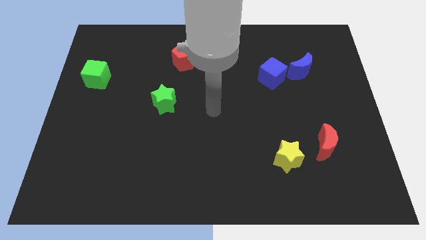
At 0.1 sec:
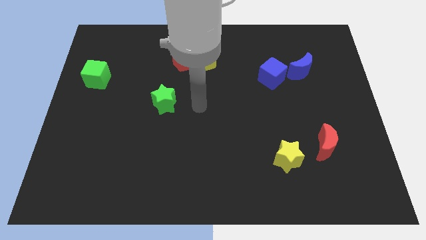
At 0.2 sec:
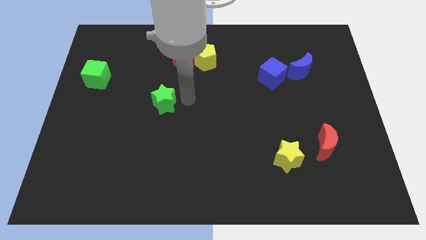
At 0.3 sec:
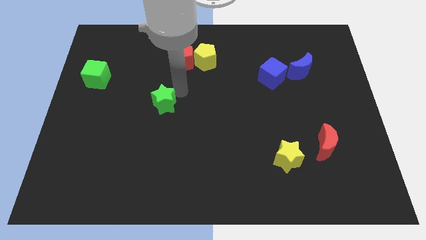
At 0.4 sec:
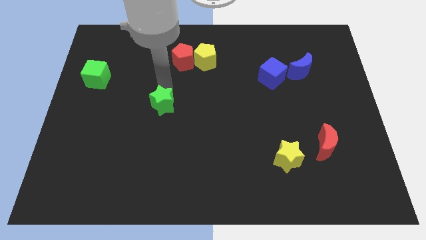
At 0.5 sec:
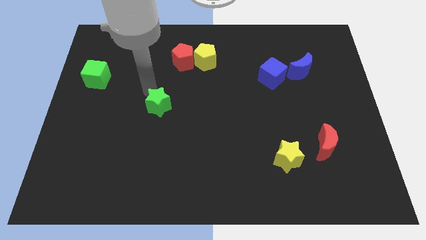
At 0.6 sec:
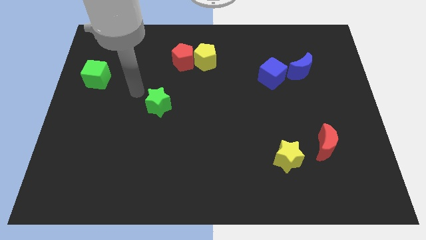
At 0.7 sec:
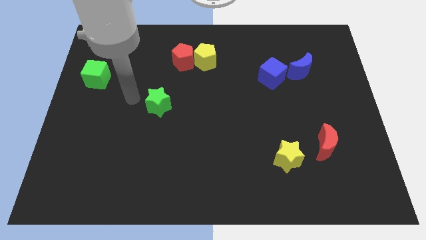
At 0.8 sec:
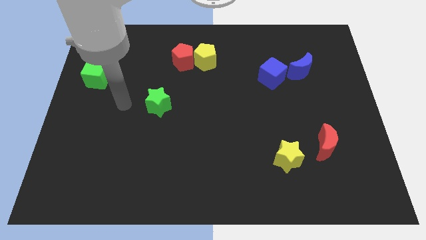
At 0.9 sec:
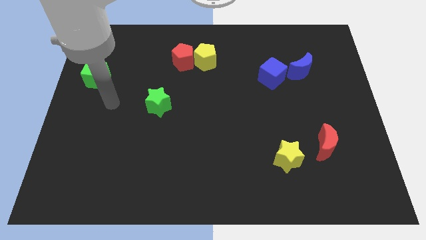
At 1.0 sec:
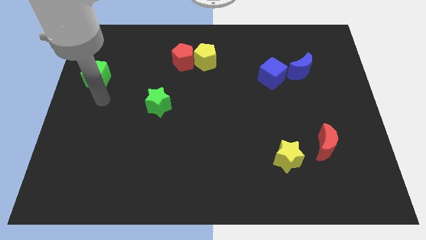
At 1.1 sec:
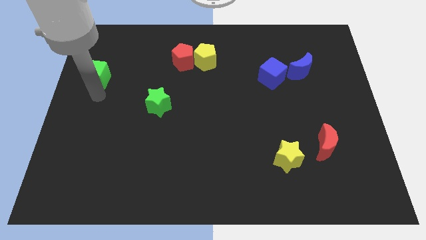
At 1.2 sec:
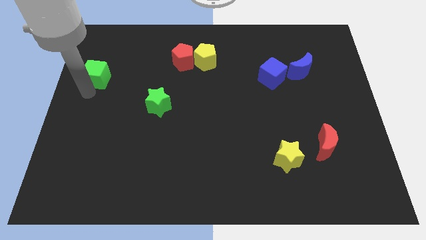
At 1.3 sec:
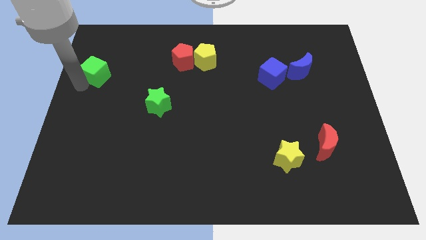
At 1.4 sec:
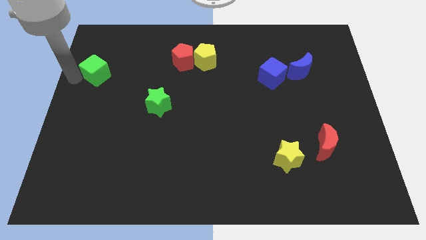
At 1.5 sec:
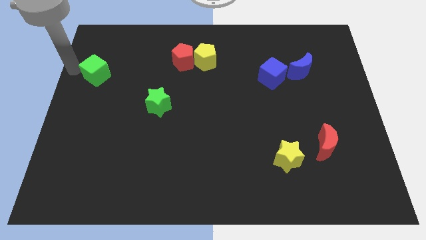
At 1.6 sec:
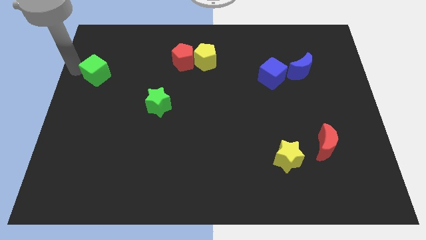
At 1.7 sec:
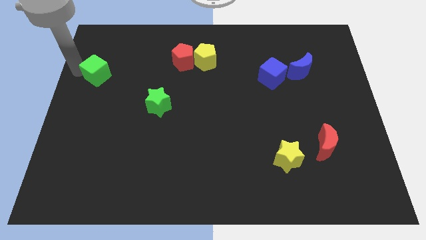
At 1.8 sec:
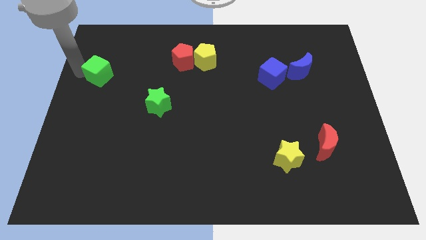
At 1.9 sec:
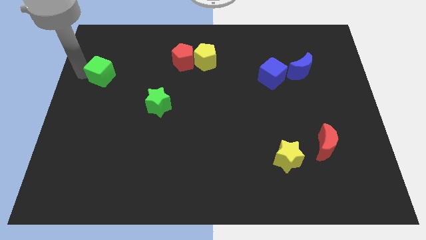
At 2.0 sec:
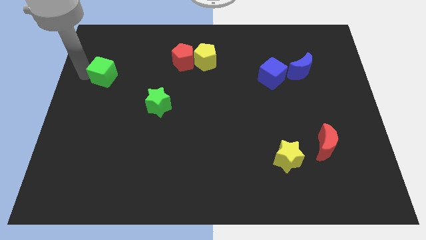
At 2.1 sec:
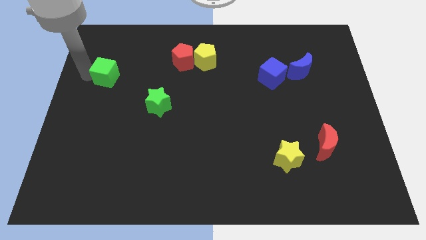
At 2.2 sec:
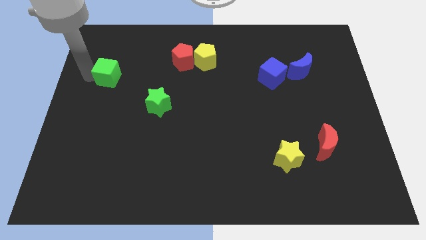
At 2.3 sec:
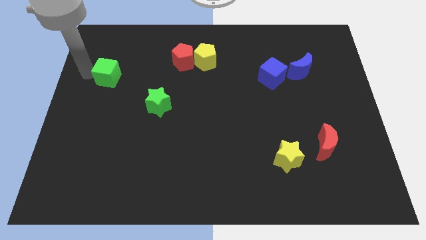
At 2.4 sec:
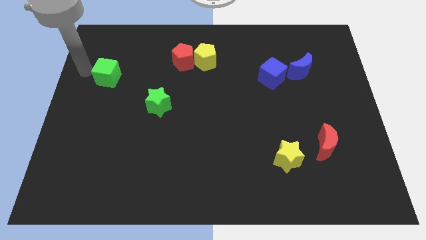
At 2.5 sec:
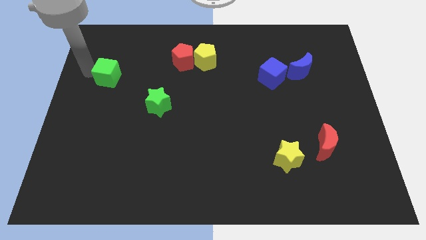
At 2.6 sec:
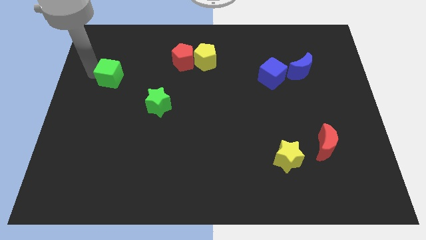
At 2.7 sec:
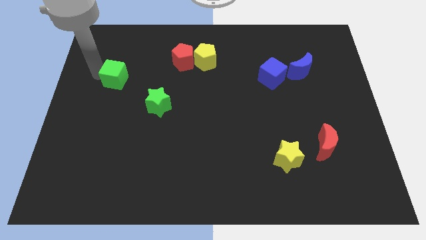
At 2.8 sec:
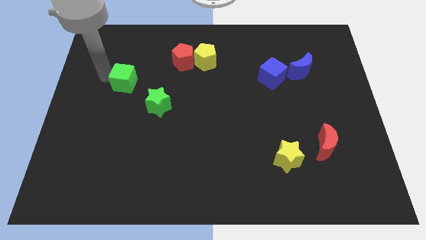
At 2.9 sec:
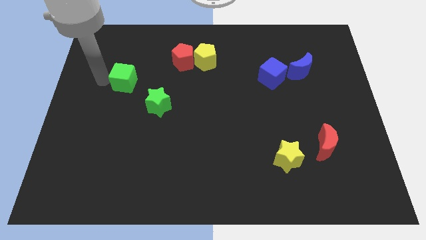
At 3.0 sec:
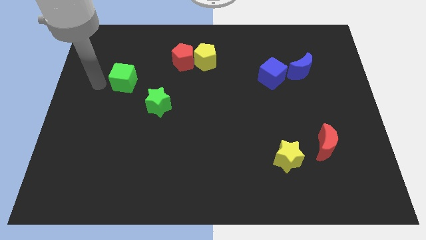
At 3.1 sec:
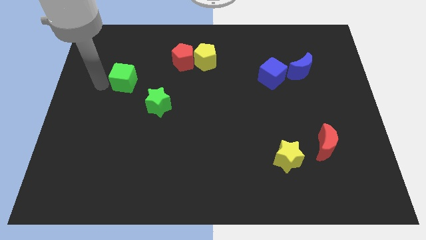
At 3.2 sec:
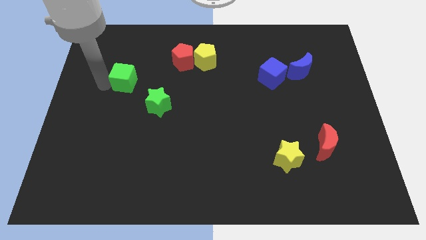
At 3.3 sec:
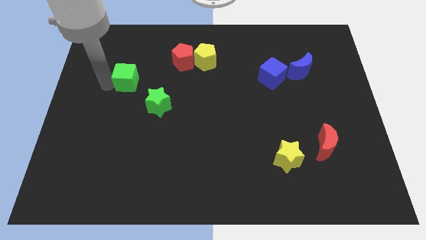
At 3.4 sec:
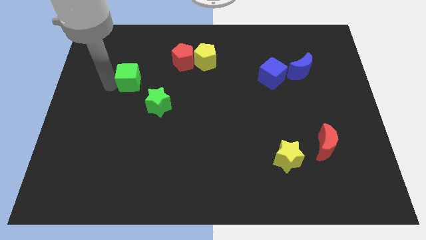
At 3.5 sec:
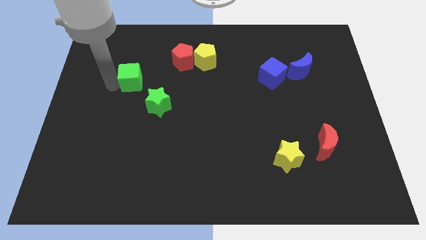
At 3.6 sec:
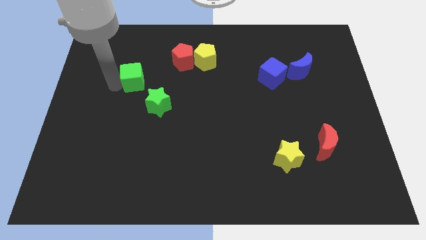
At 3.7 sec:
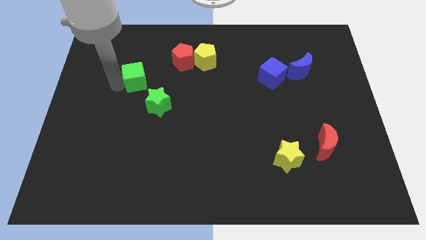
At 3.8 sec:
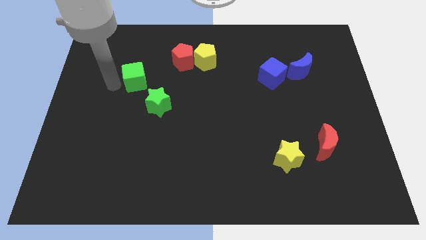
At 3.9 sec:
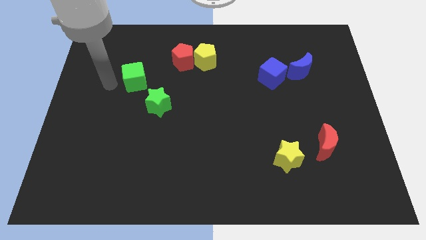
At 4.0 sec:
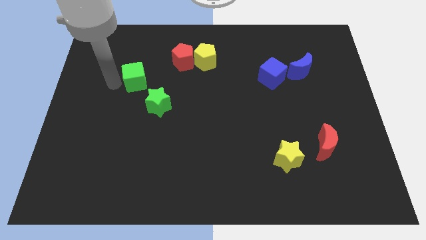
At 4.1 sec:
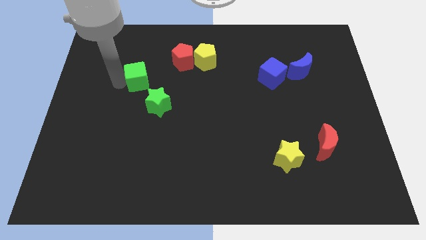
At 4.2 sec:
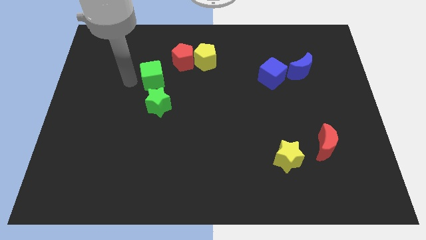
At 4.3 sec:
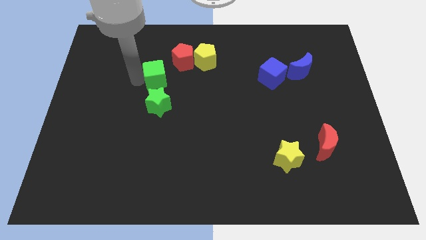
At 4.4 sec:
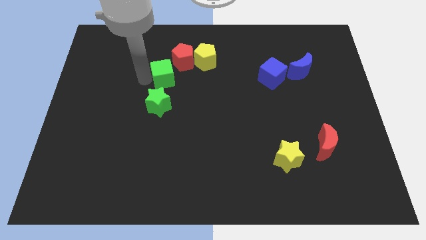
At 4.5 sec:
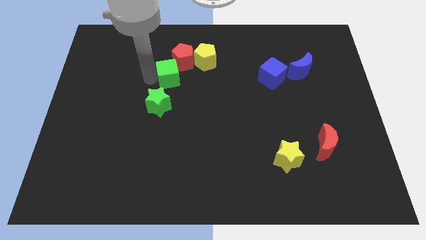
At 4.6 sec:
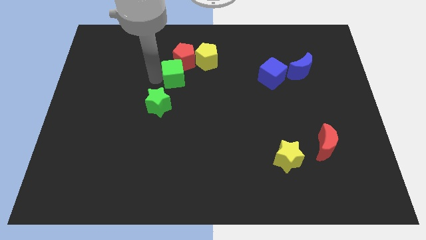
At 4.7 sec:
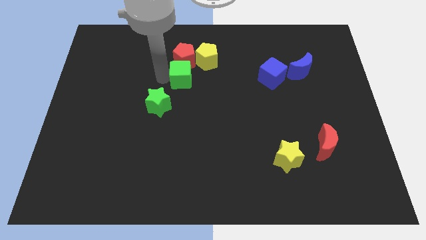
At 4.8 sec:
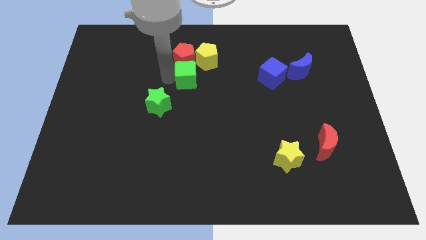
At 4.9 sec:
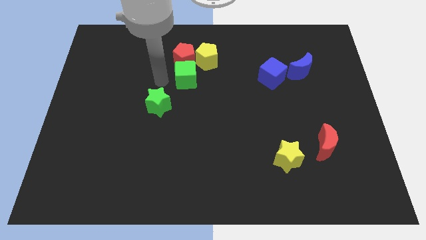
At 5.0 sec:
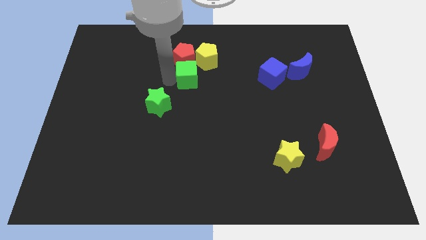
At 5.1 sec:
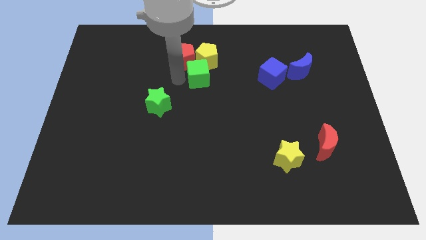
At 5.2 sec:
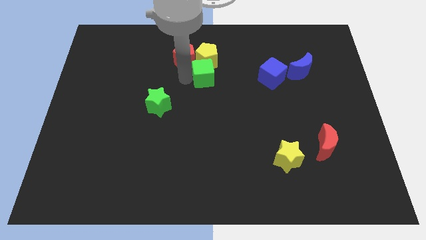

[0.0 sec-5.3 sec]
move the green cube diagonally down and to the right of the yellow pentagon

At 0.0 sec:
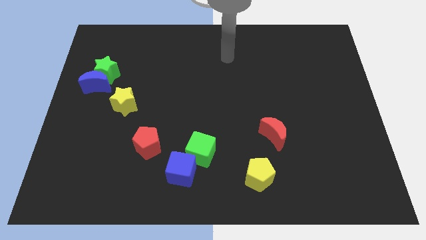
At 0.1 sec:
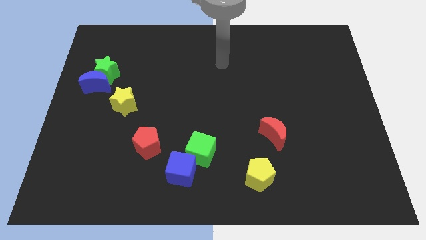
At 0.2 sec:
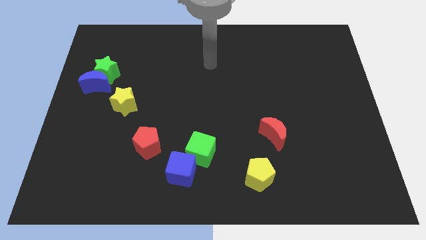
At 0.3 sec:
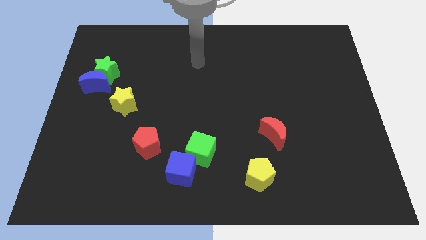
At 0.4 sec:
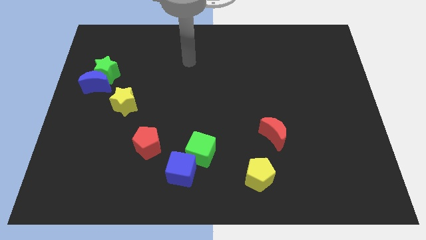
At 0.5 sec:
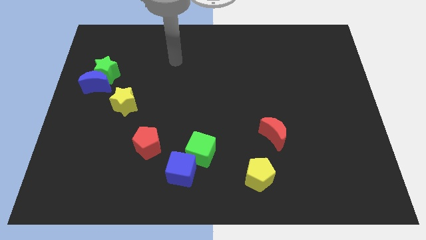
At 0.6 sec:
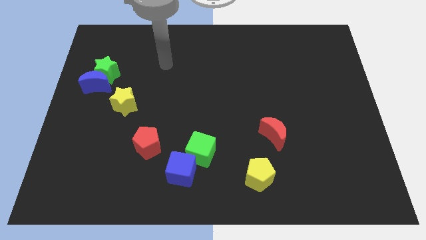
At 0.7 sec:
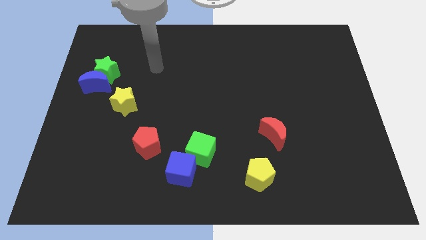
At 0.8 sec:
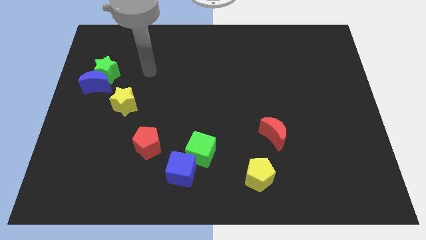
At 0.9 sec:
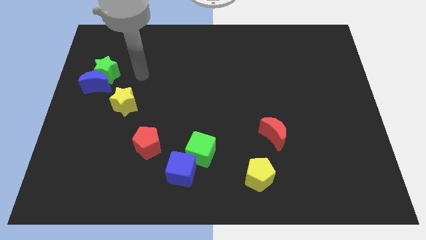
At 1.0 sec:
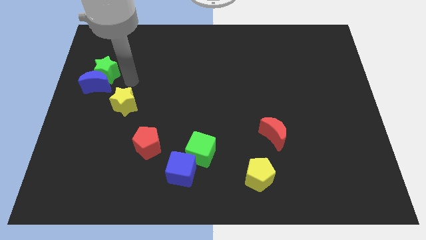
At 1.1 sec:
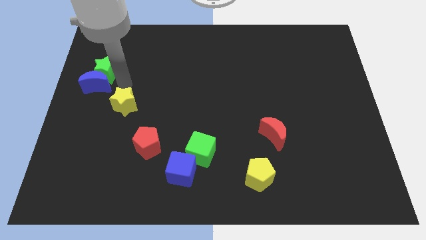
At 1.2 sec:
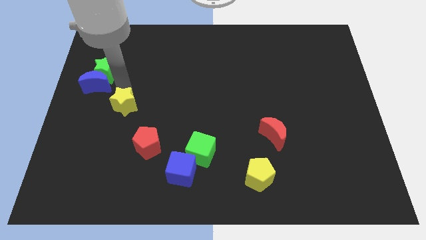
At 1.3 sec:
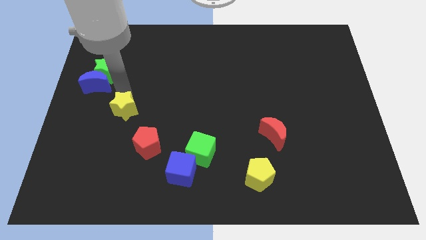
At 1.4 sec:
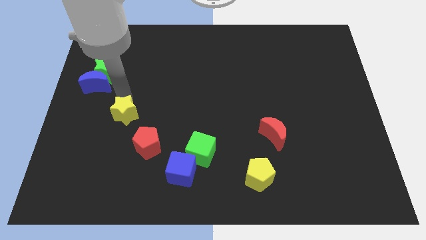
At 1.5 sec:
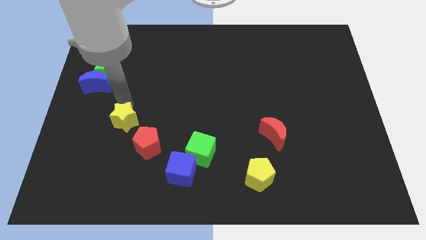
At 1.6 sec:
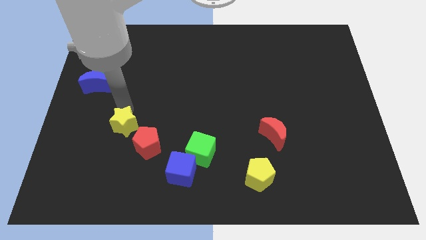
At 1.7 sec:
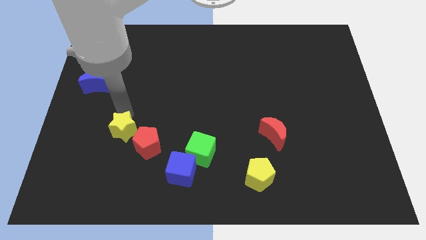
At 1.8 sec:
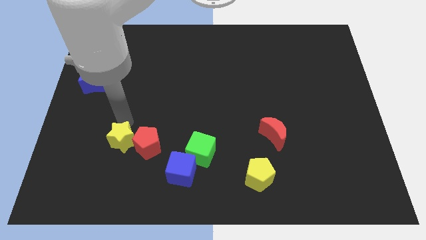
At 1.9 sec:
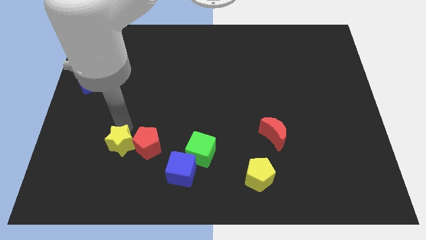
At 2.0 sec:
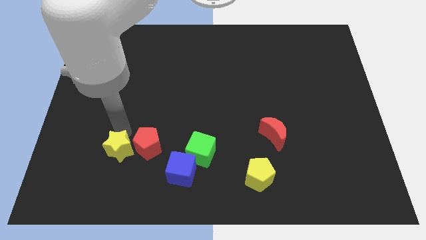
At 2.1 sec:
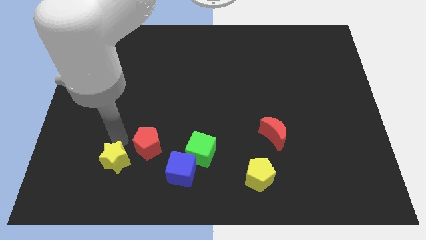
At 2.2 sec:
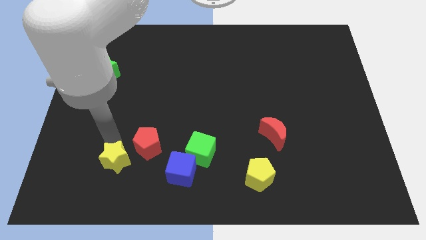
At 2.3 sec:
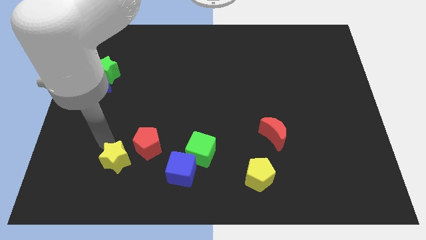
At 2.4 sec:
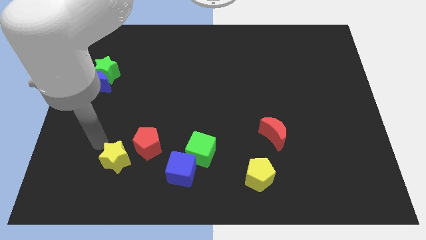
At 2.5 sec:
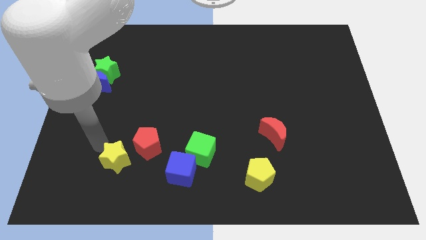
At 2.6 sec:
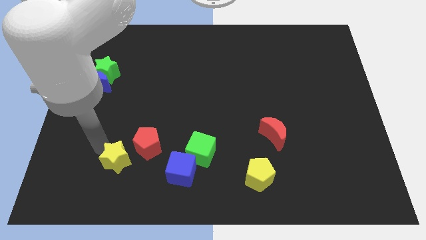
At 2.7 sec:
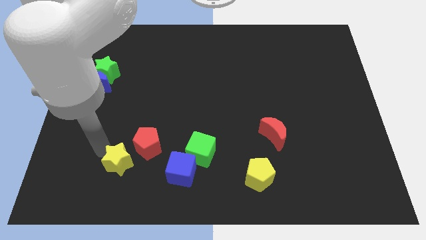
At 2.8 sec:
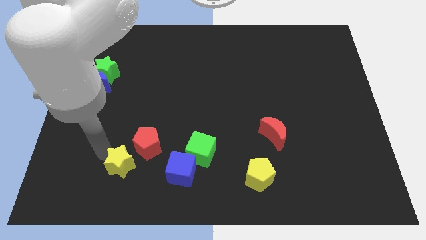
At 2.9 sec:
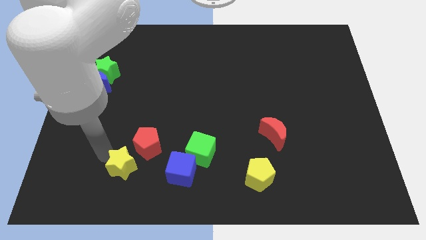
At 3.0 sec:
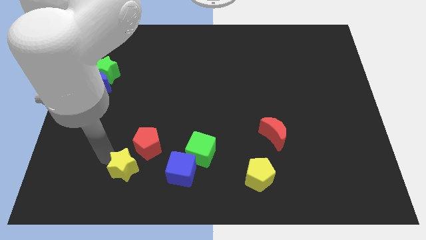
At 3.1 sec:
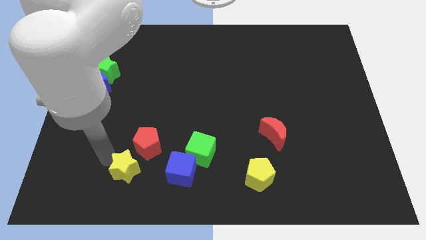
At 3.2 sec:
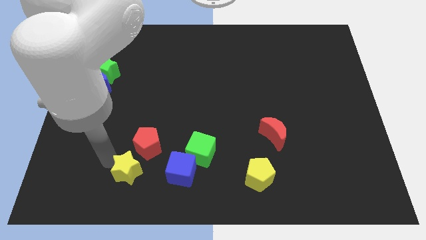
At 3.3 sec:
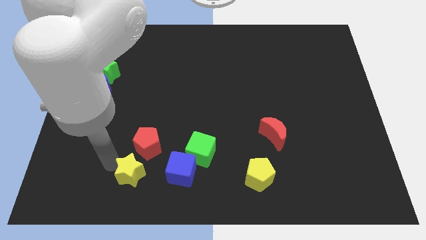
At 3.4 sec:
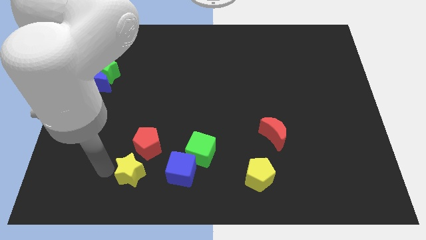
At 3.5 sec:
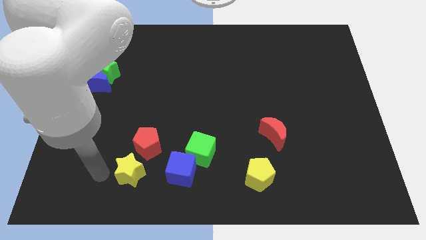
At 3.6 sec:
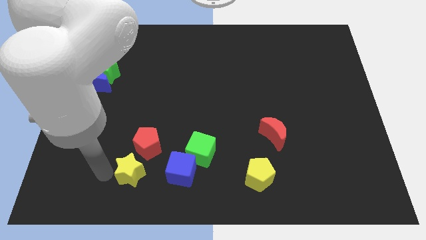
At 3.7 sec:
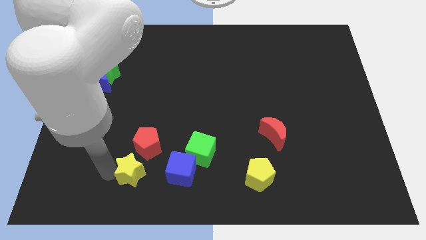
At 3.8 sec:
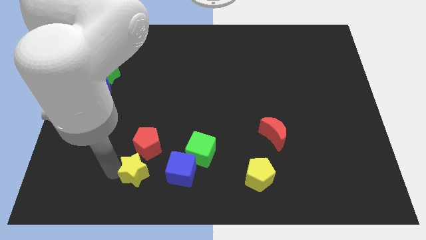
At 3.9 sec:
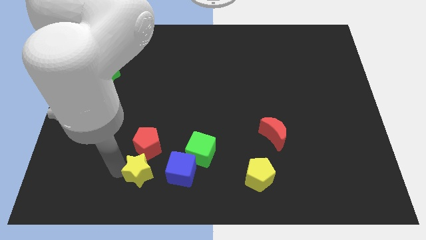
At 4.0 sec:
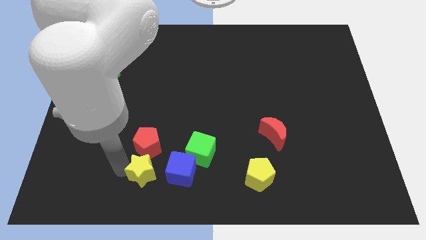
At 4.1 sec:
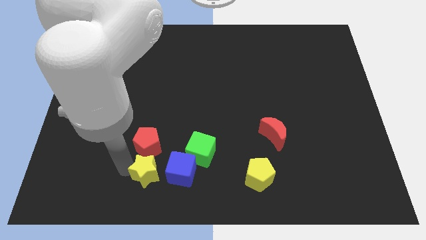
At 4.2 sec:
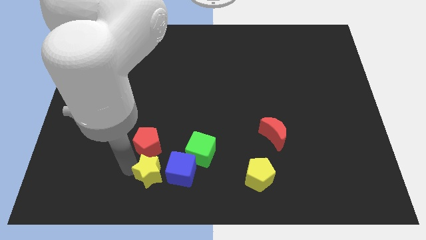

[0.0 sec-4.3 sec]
put the yellow star diagonally down and to the left of the green cube
